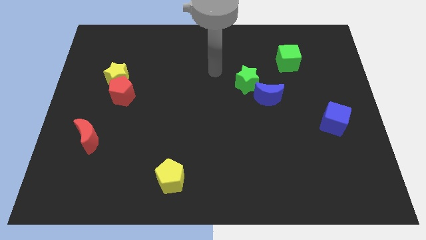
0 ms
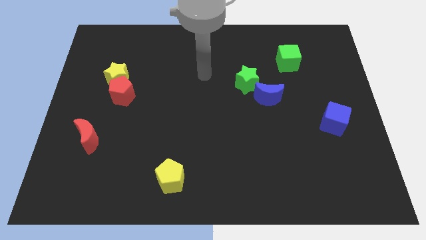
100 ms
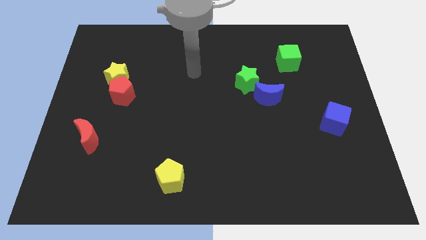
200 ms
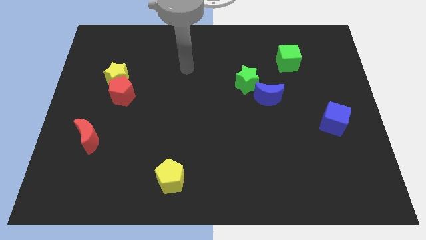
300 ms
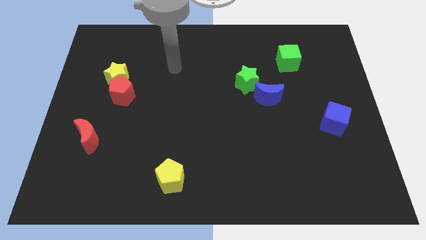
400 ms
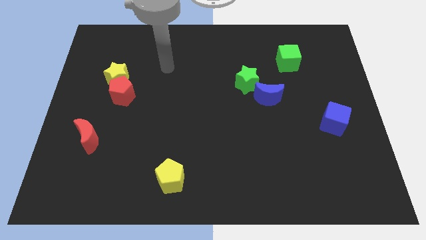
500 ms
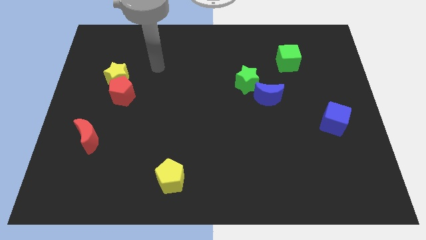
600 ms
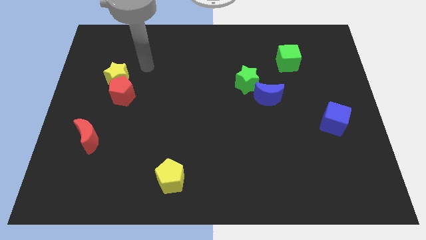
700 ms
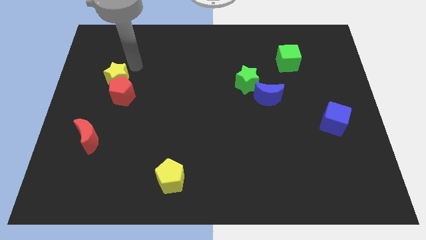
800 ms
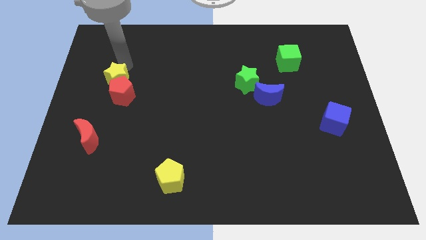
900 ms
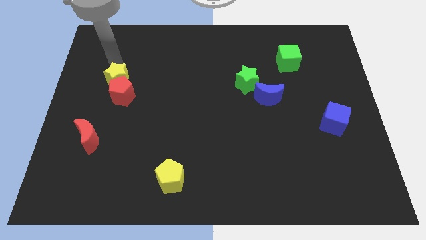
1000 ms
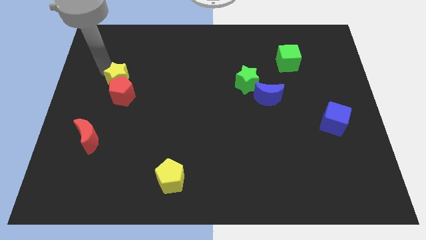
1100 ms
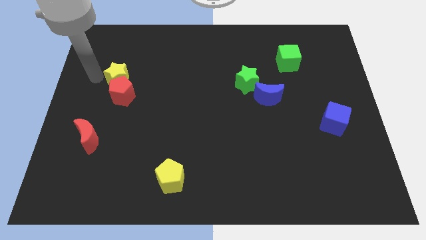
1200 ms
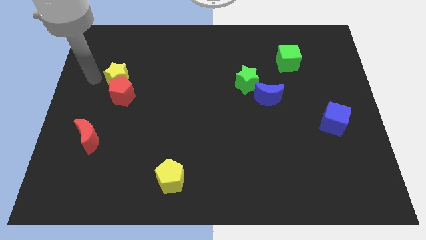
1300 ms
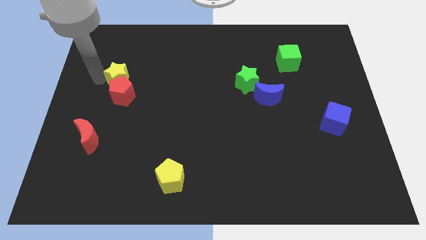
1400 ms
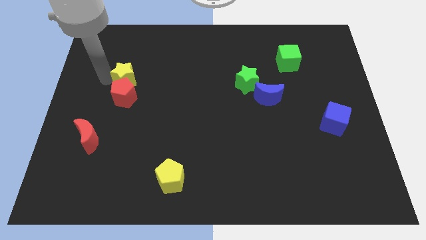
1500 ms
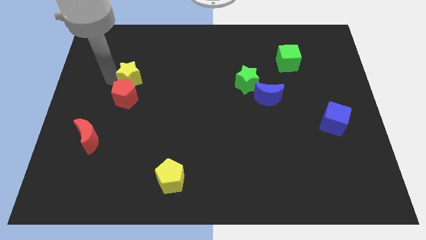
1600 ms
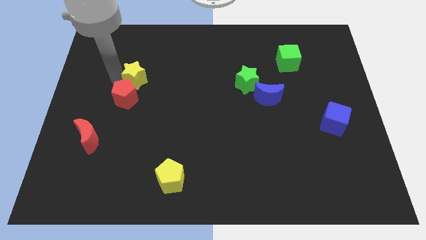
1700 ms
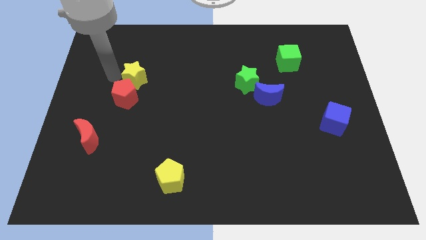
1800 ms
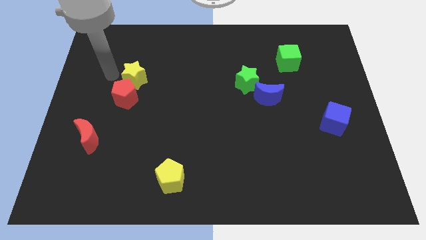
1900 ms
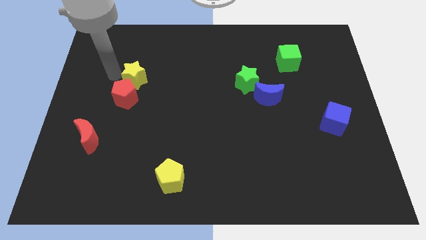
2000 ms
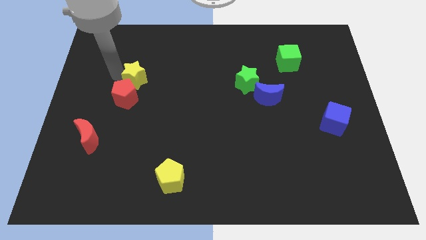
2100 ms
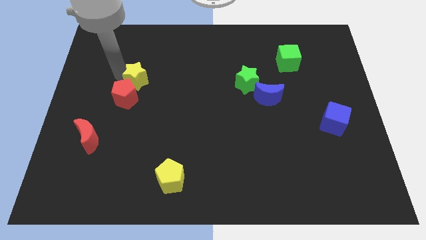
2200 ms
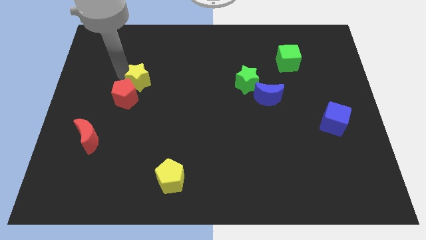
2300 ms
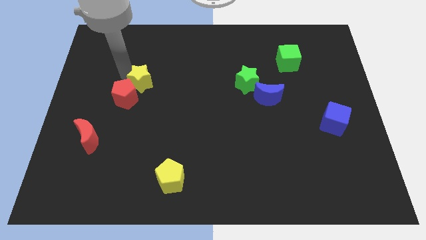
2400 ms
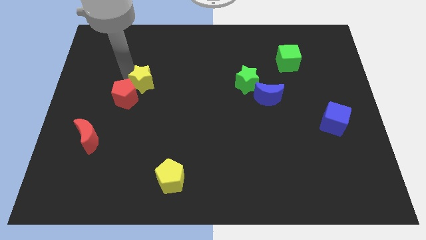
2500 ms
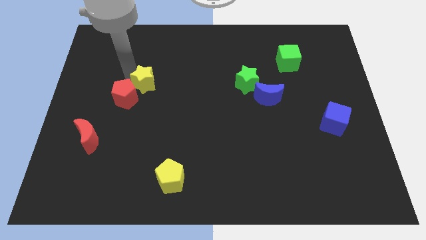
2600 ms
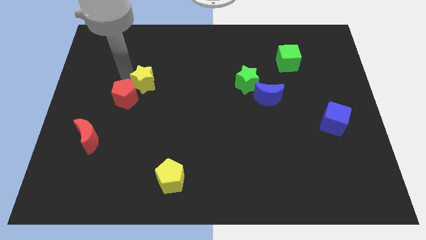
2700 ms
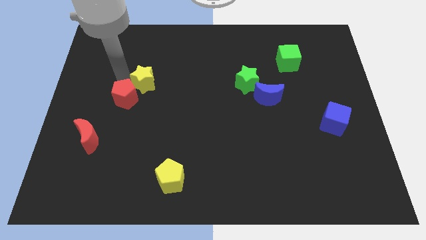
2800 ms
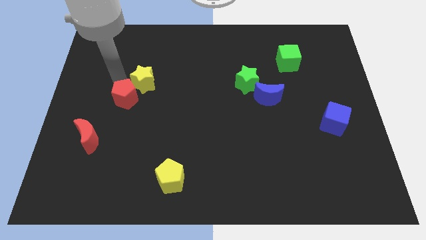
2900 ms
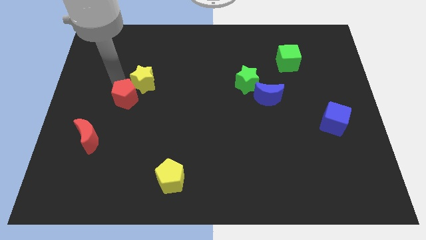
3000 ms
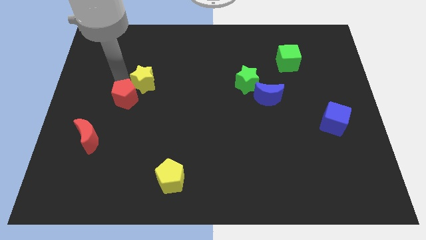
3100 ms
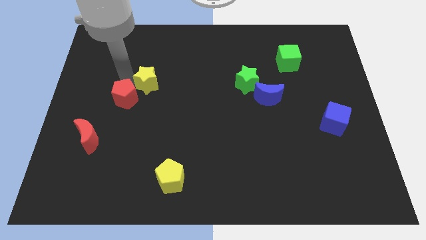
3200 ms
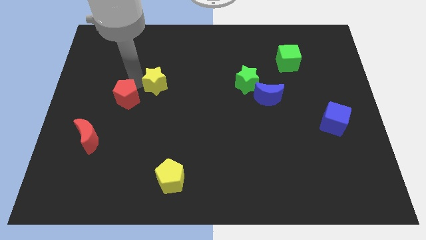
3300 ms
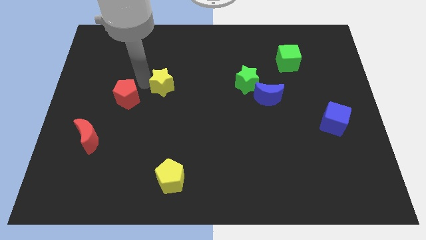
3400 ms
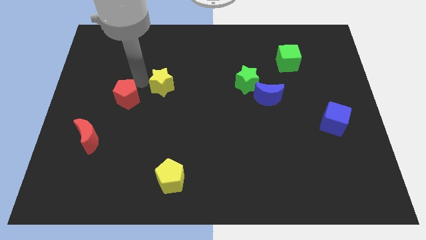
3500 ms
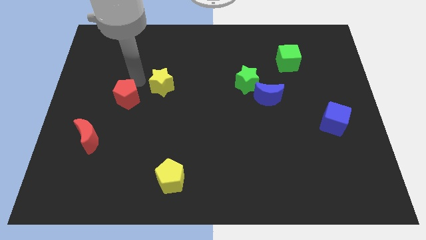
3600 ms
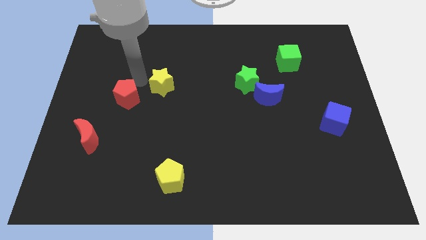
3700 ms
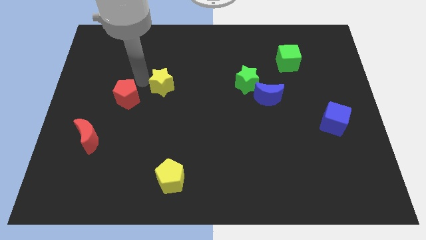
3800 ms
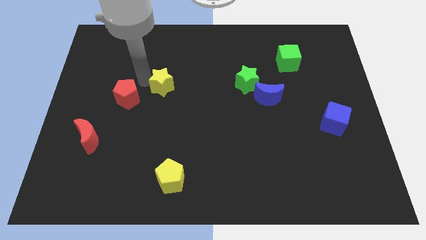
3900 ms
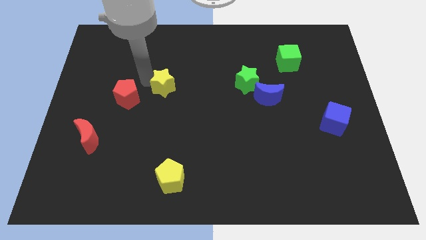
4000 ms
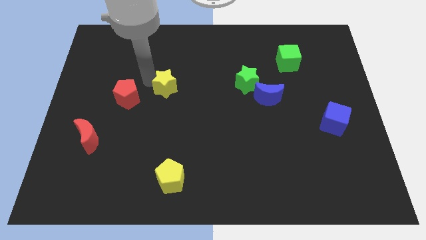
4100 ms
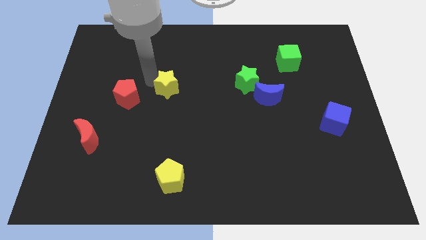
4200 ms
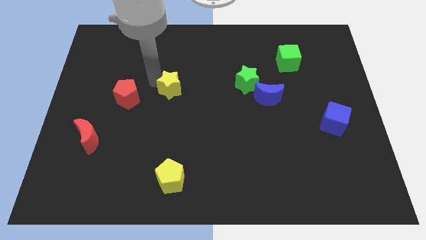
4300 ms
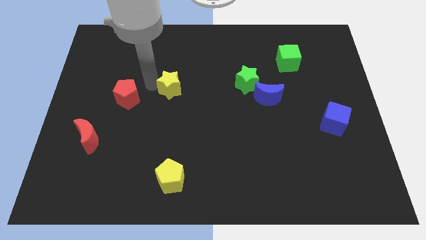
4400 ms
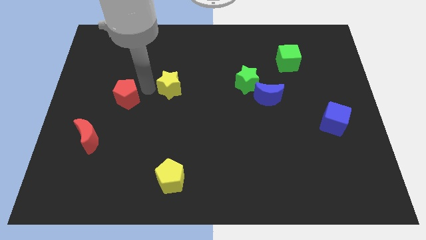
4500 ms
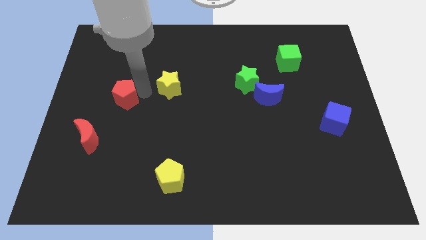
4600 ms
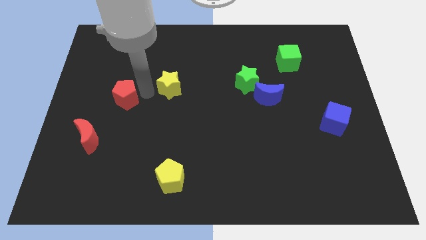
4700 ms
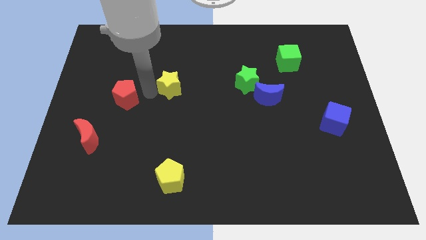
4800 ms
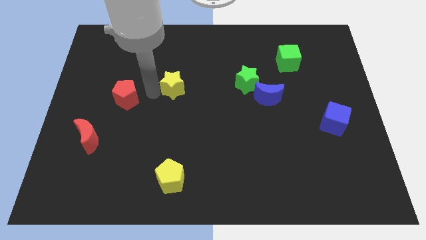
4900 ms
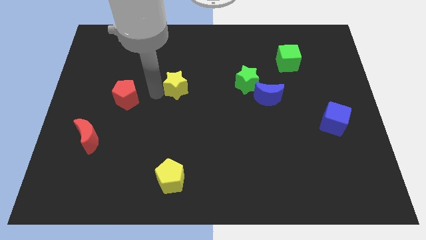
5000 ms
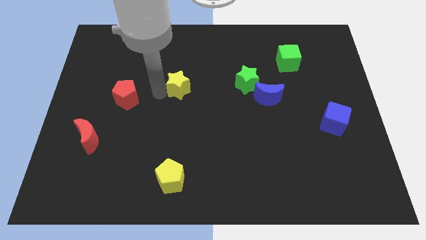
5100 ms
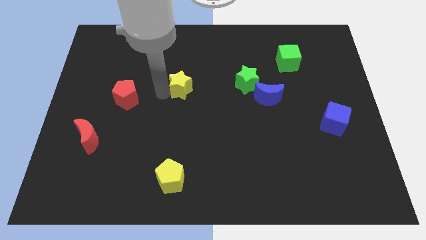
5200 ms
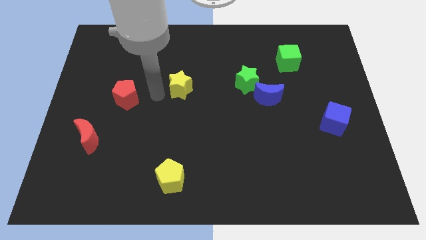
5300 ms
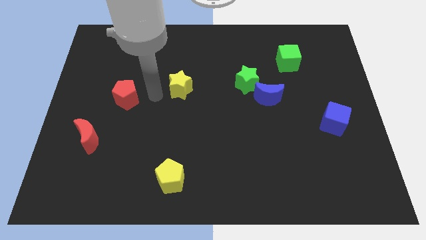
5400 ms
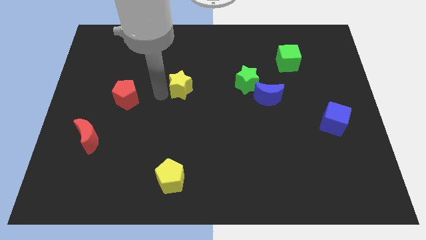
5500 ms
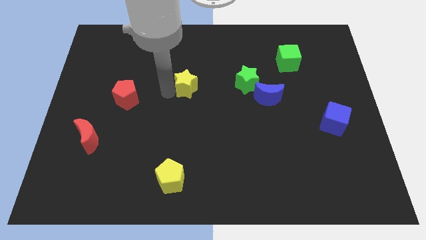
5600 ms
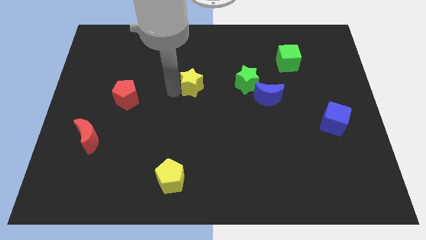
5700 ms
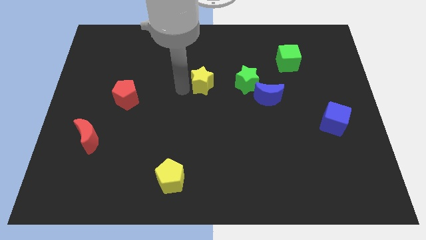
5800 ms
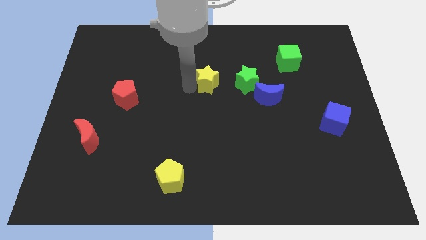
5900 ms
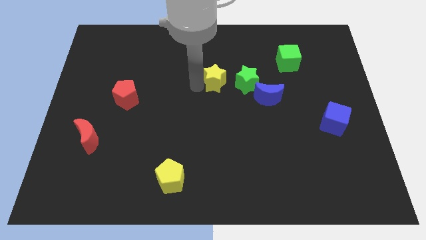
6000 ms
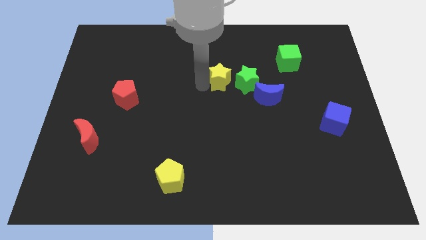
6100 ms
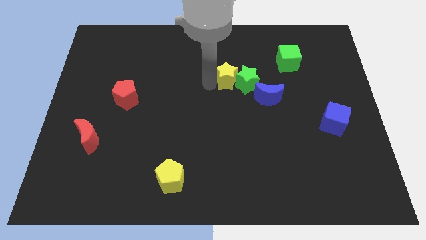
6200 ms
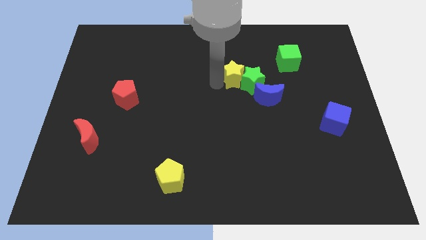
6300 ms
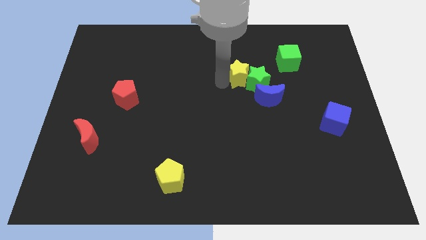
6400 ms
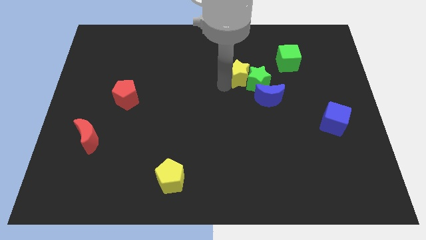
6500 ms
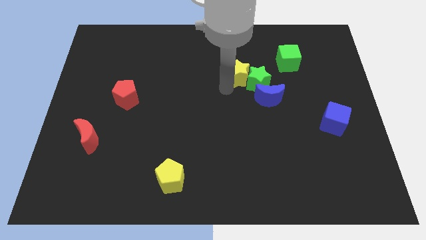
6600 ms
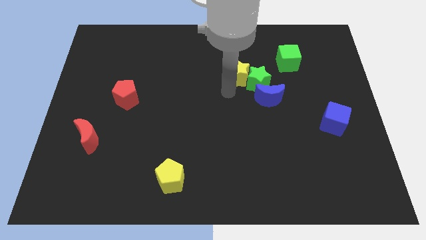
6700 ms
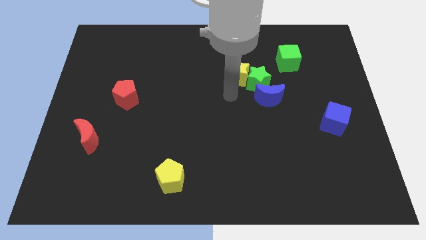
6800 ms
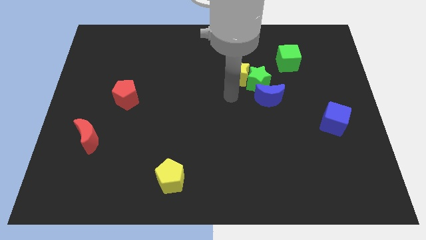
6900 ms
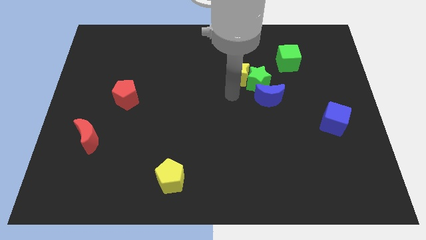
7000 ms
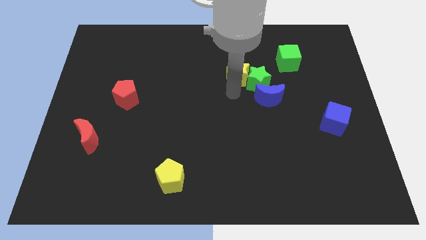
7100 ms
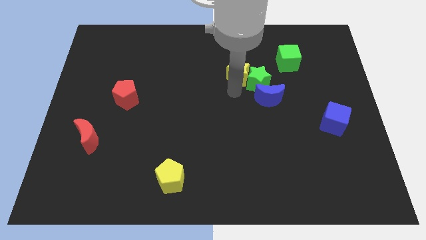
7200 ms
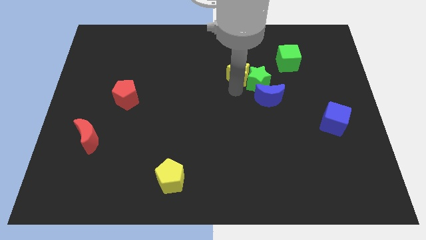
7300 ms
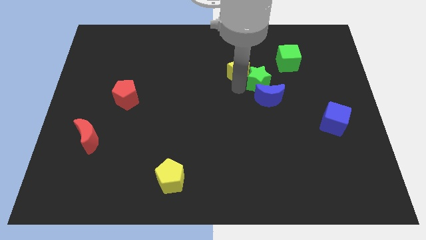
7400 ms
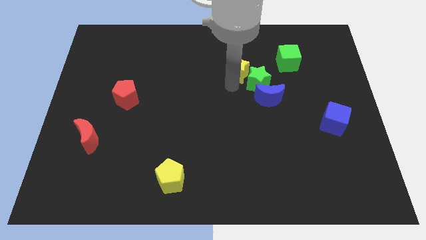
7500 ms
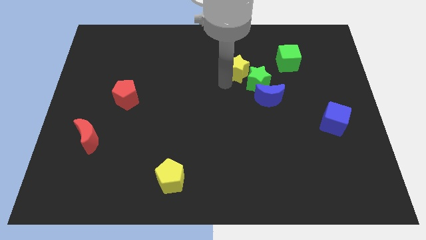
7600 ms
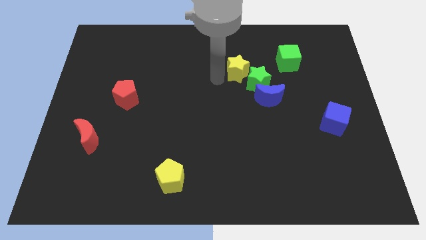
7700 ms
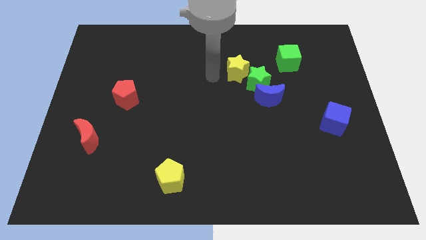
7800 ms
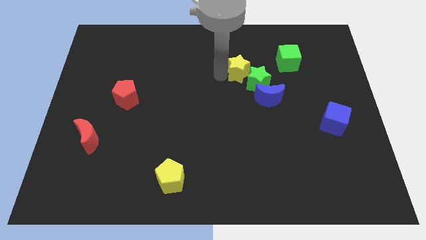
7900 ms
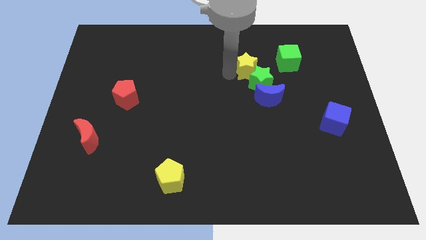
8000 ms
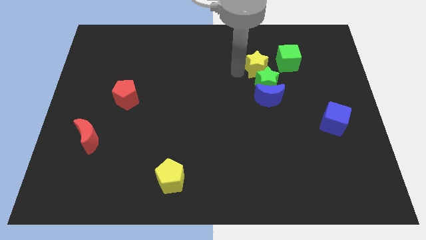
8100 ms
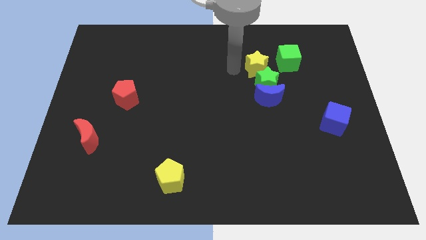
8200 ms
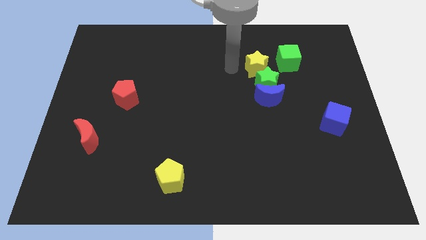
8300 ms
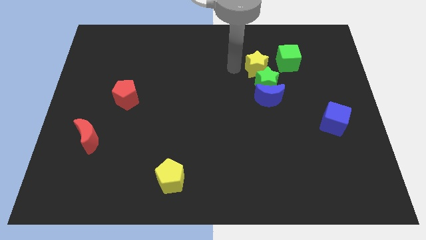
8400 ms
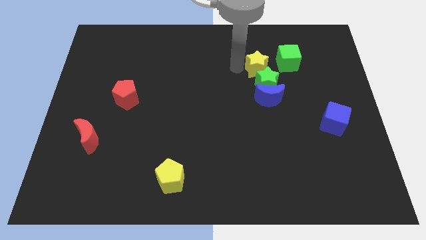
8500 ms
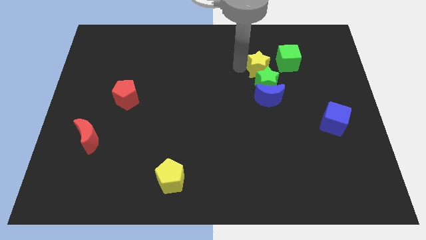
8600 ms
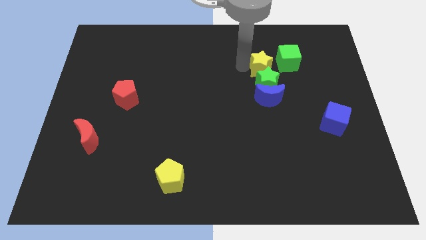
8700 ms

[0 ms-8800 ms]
move the yellow star to the top right side of the green star
